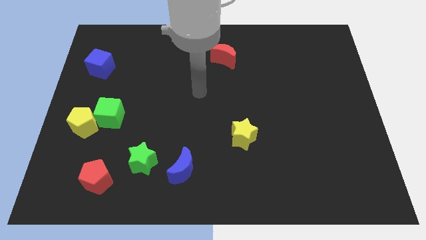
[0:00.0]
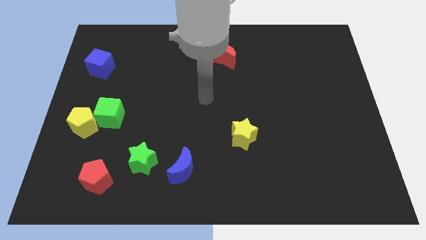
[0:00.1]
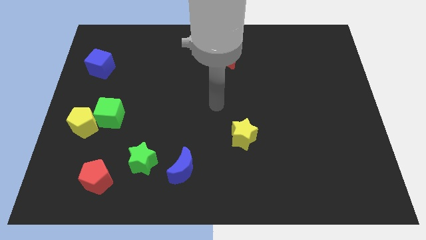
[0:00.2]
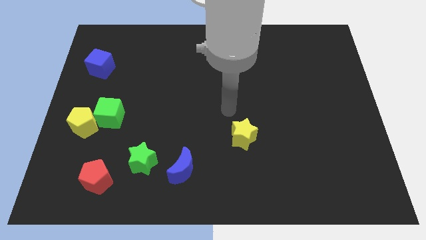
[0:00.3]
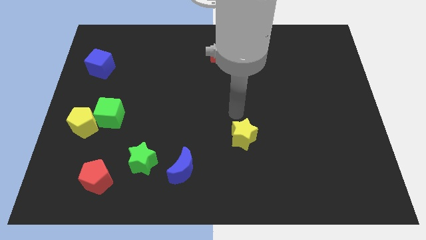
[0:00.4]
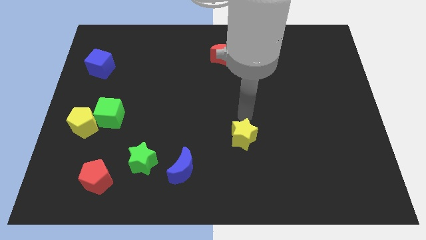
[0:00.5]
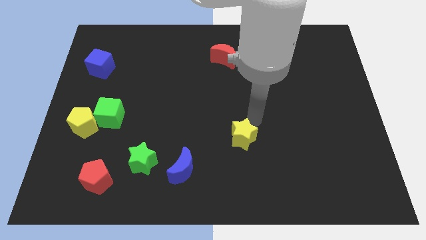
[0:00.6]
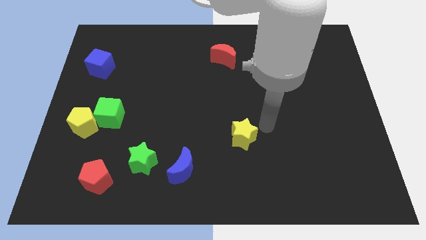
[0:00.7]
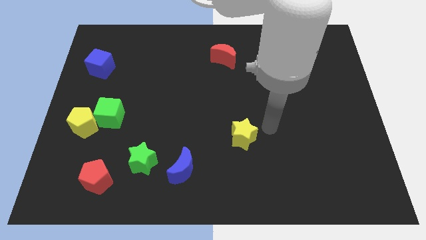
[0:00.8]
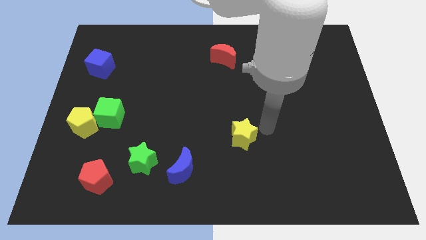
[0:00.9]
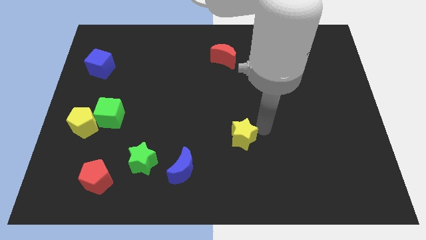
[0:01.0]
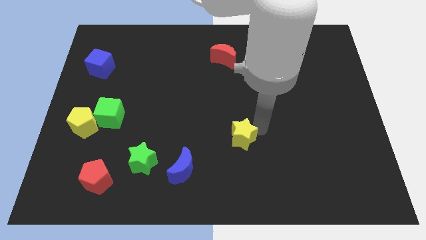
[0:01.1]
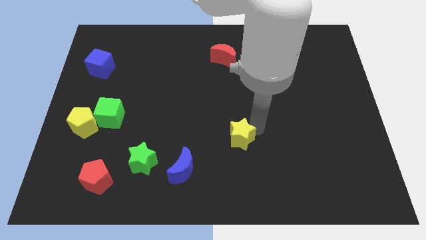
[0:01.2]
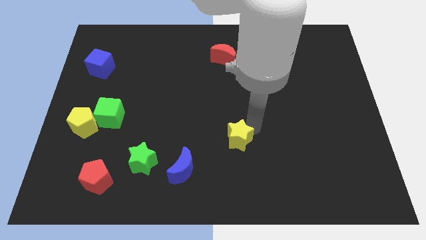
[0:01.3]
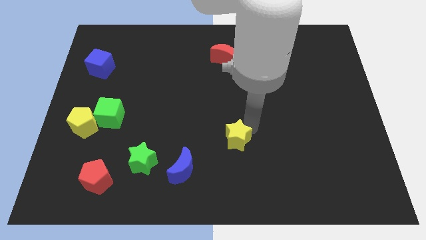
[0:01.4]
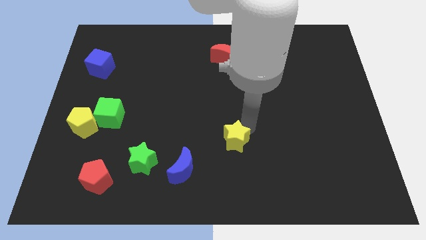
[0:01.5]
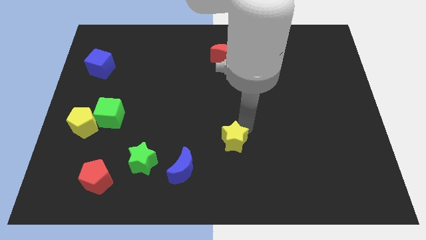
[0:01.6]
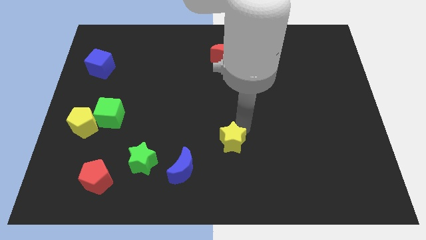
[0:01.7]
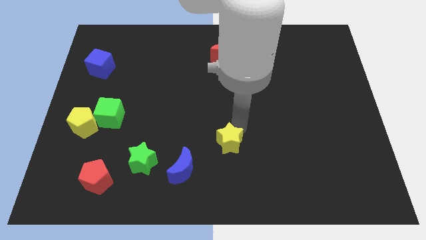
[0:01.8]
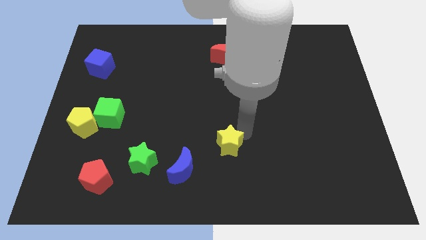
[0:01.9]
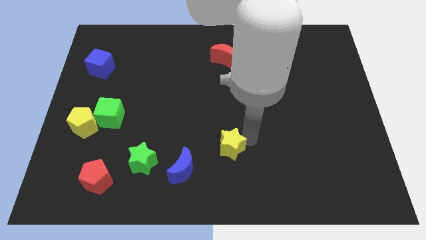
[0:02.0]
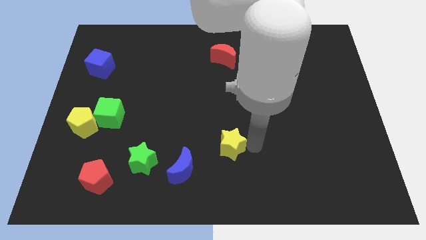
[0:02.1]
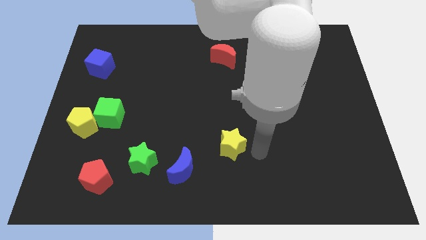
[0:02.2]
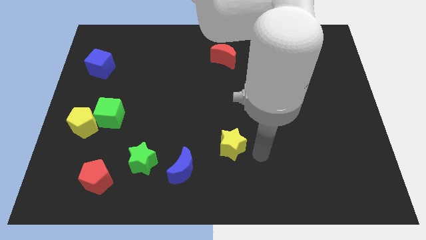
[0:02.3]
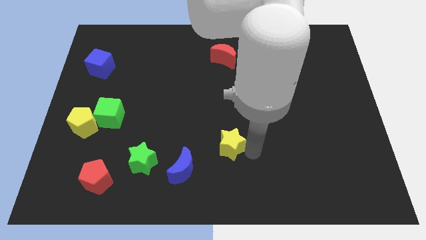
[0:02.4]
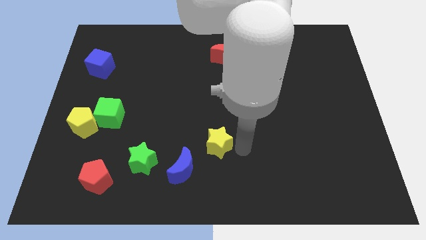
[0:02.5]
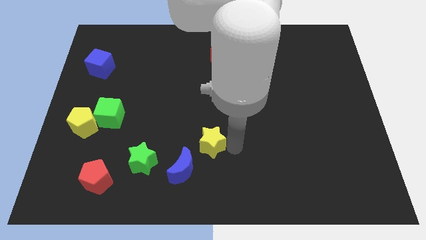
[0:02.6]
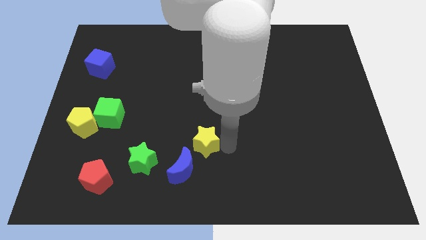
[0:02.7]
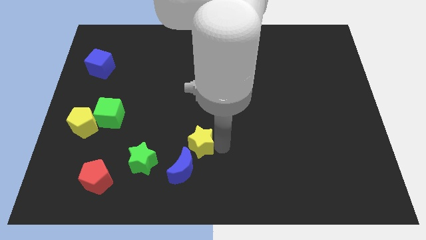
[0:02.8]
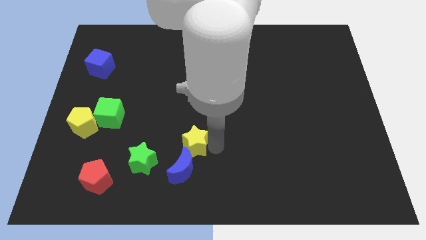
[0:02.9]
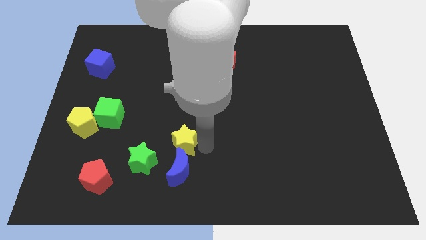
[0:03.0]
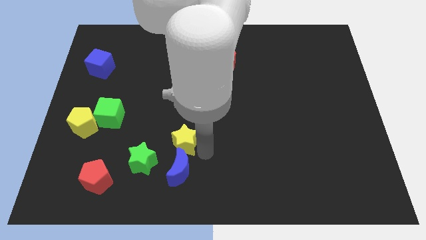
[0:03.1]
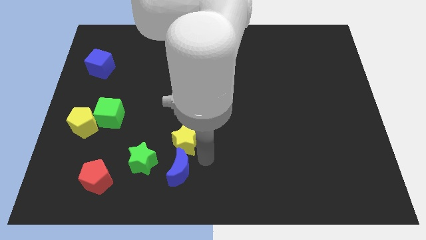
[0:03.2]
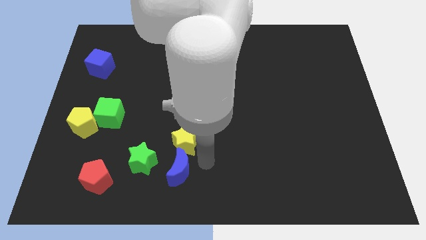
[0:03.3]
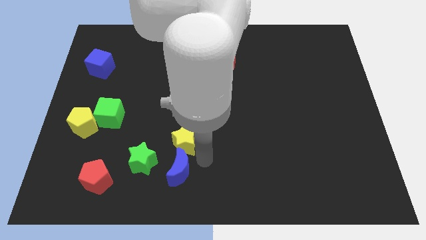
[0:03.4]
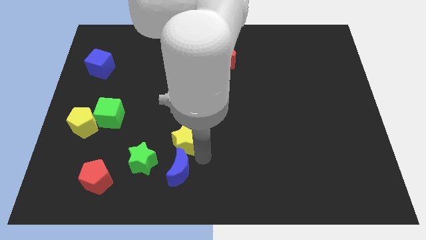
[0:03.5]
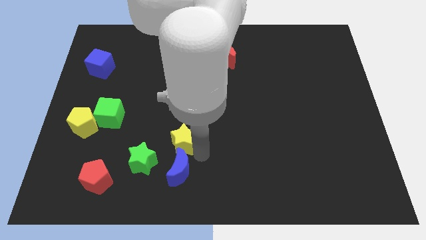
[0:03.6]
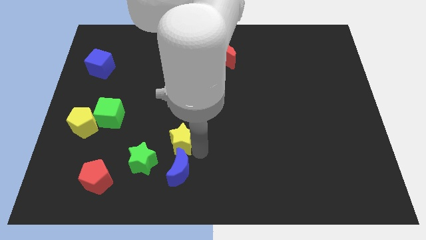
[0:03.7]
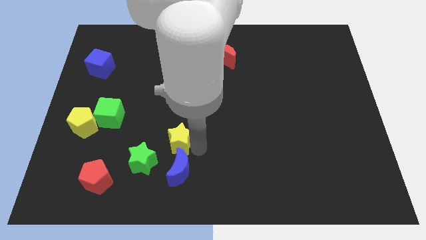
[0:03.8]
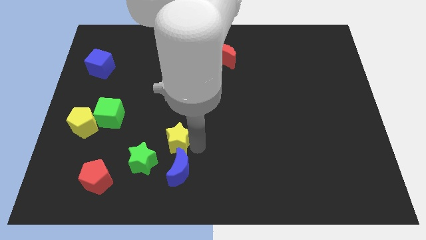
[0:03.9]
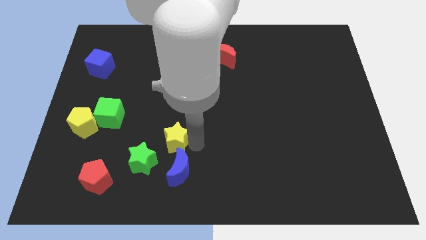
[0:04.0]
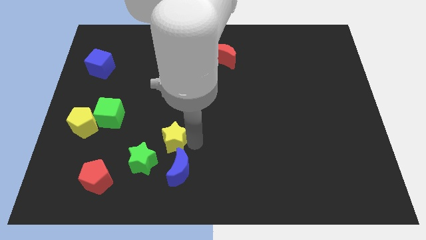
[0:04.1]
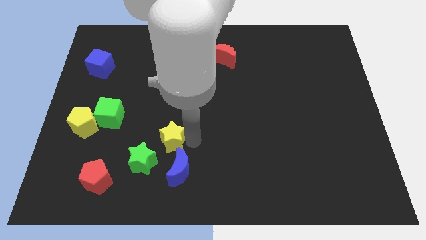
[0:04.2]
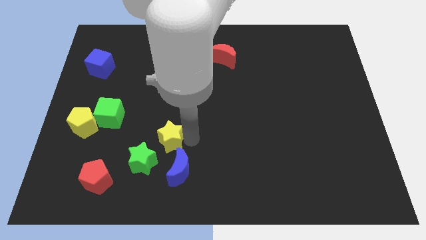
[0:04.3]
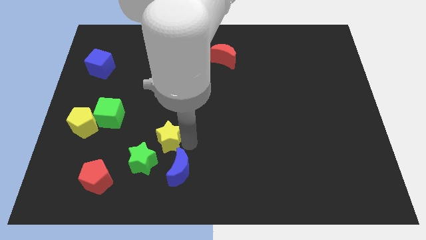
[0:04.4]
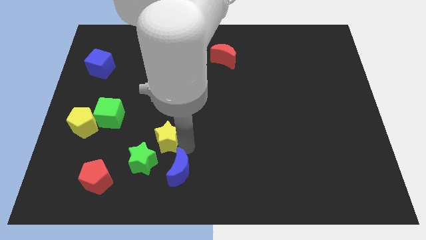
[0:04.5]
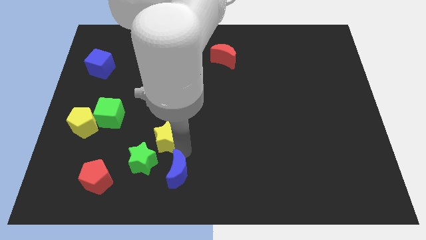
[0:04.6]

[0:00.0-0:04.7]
push the yellow star to the top of the green star

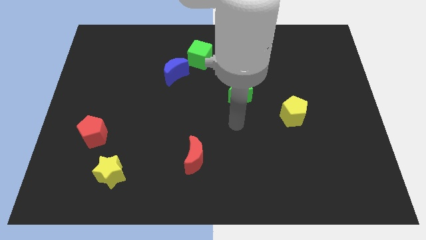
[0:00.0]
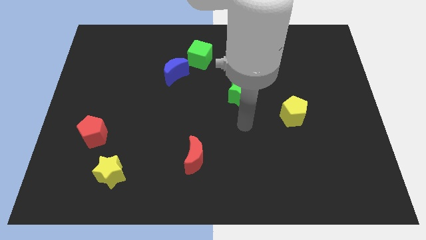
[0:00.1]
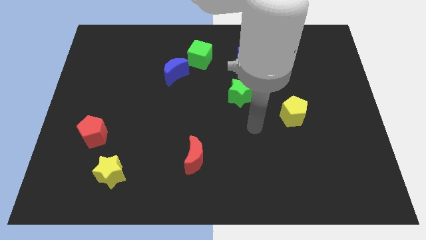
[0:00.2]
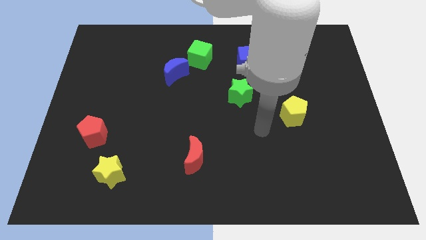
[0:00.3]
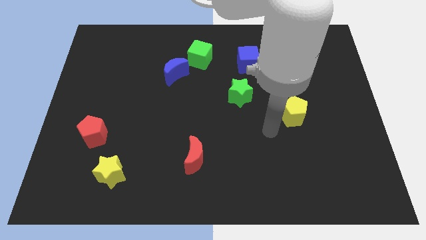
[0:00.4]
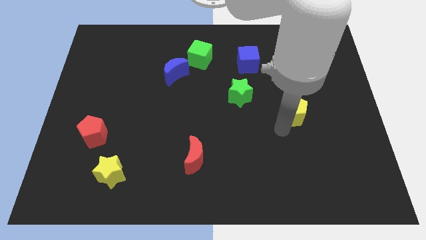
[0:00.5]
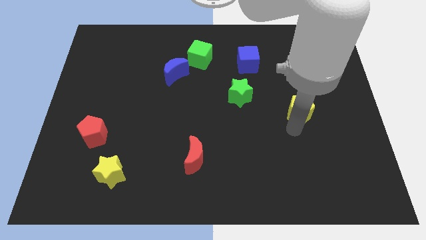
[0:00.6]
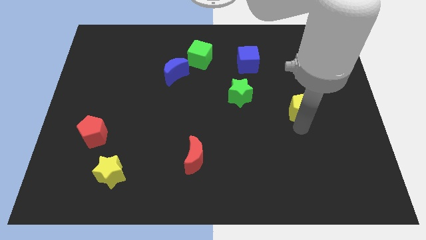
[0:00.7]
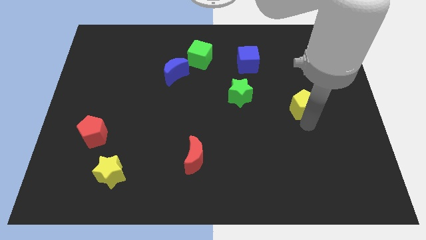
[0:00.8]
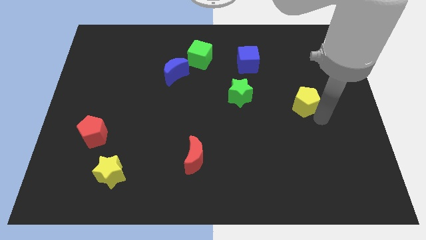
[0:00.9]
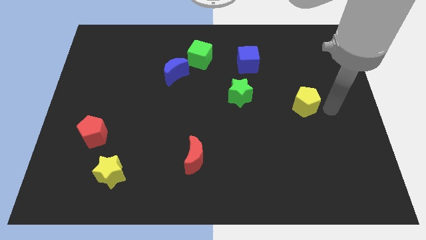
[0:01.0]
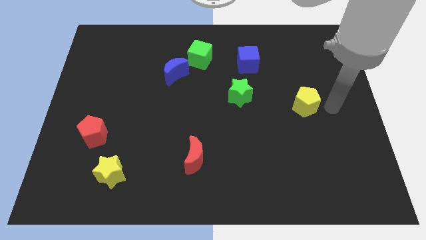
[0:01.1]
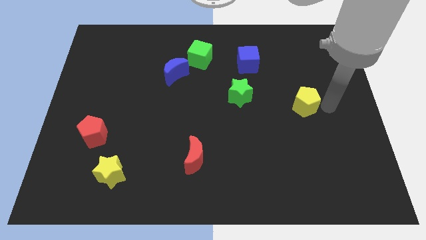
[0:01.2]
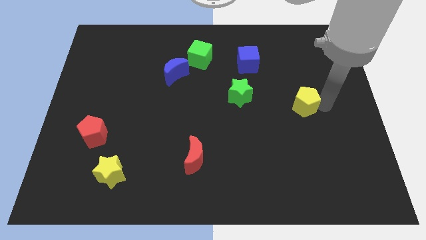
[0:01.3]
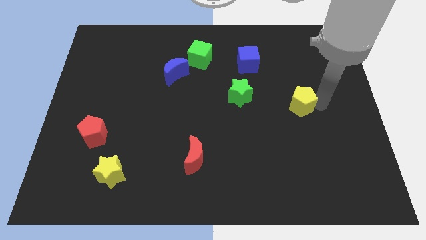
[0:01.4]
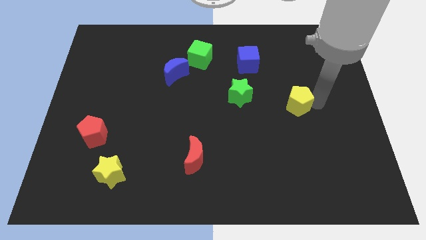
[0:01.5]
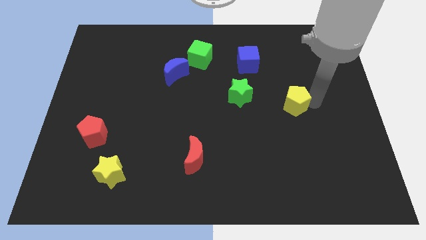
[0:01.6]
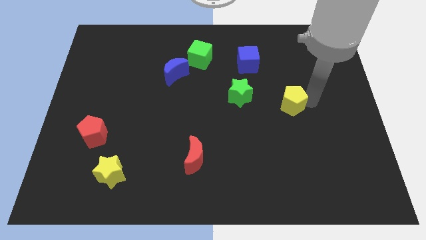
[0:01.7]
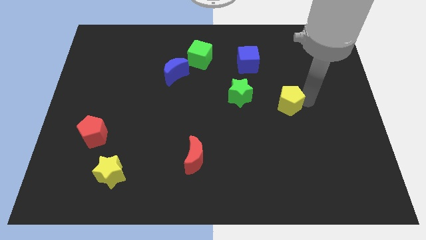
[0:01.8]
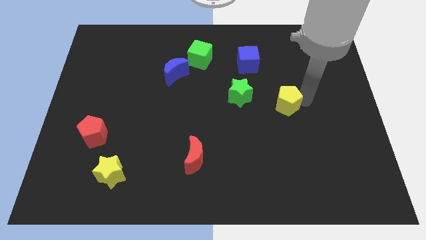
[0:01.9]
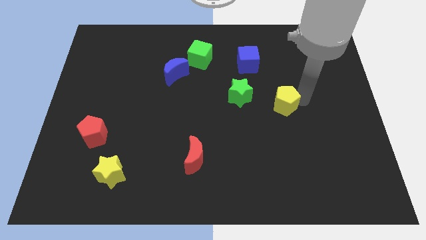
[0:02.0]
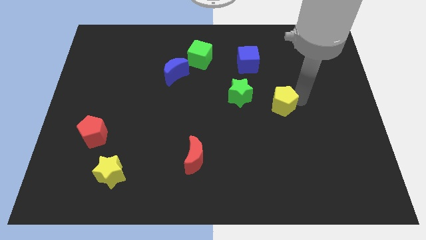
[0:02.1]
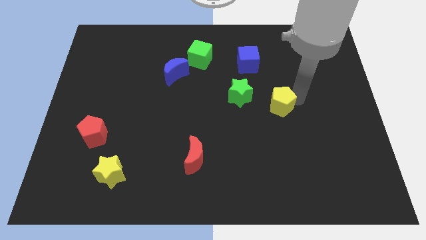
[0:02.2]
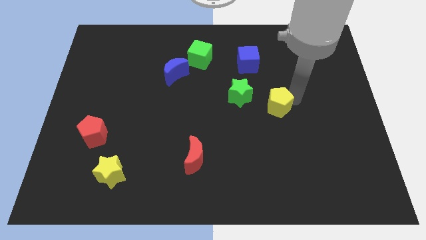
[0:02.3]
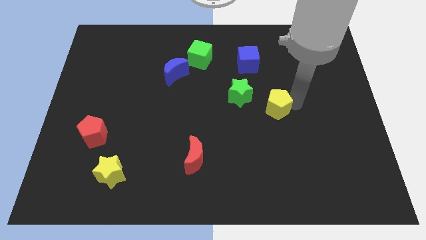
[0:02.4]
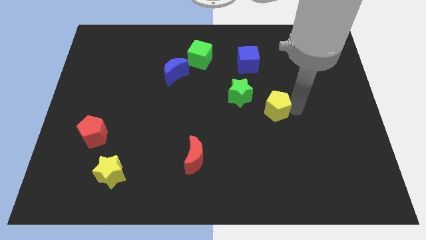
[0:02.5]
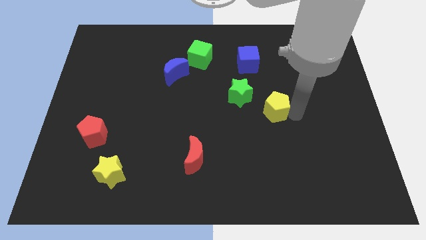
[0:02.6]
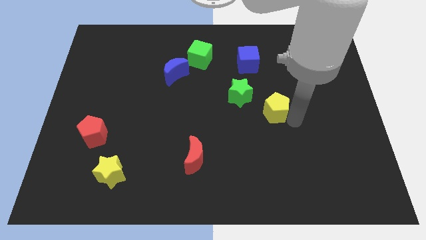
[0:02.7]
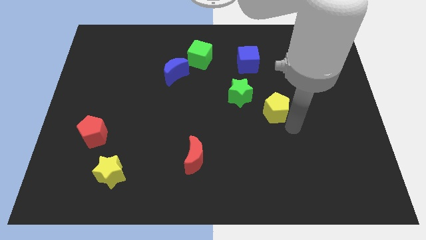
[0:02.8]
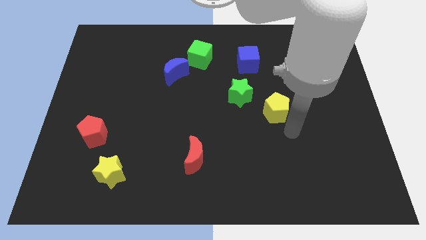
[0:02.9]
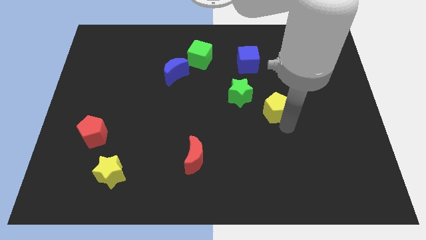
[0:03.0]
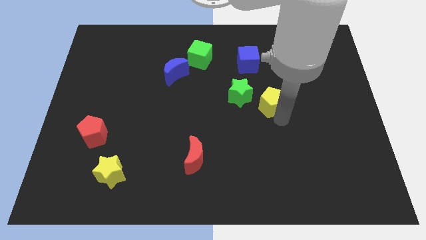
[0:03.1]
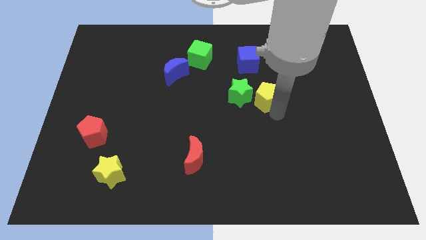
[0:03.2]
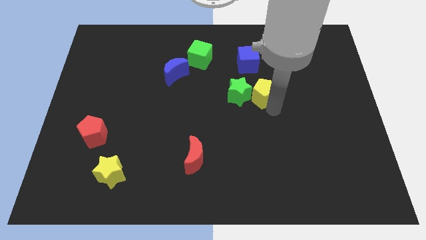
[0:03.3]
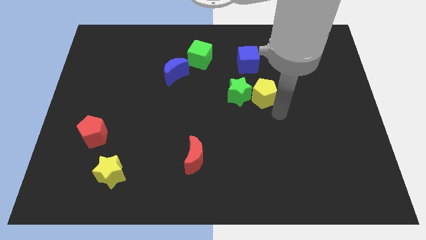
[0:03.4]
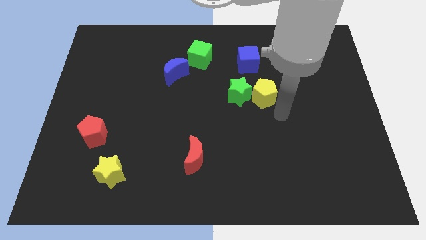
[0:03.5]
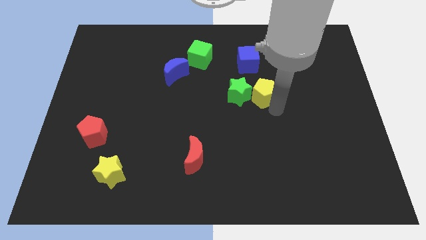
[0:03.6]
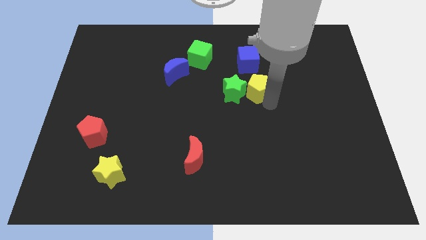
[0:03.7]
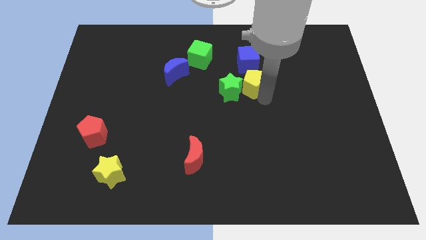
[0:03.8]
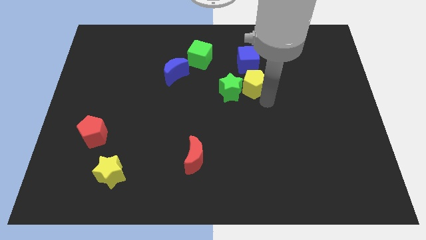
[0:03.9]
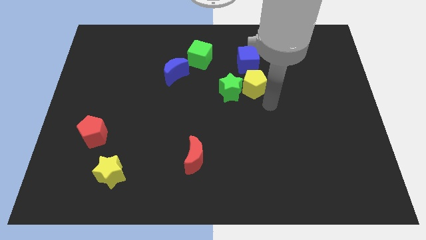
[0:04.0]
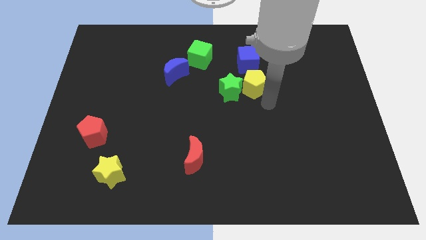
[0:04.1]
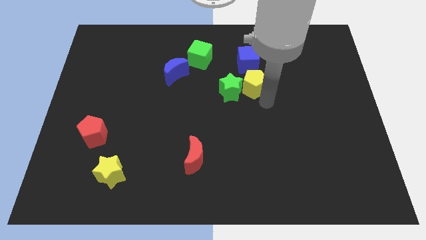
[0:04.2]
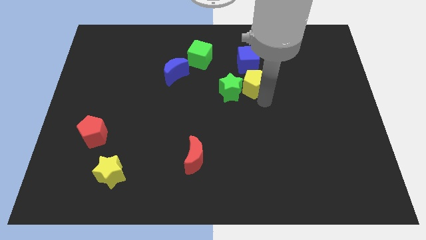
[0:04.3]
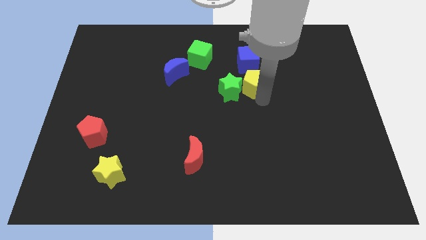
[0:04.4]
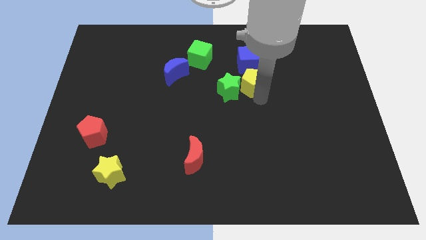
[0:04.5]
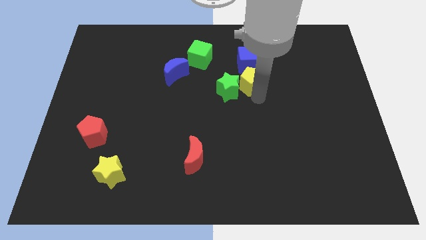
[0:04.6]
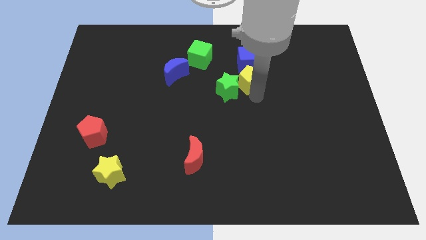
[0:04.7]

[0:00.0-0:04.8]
move the yellow pentagon to the bottom left of the blue cube
